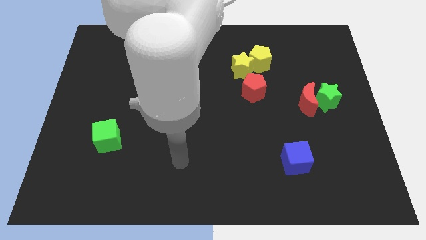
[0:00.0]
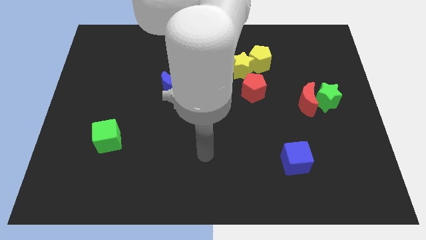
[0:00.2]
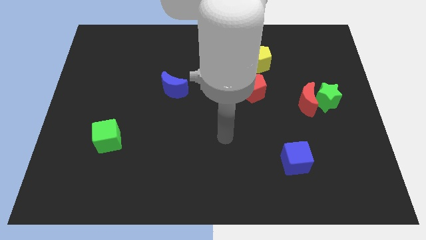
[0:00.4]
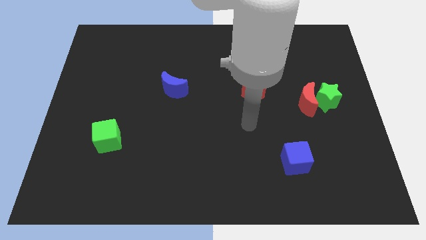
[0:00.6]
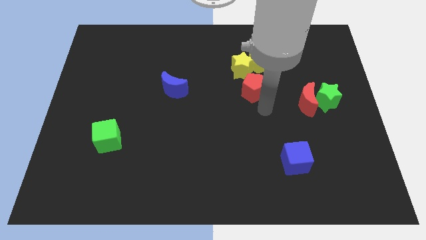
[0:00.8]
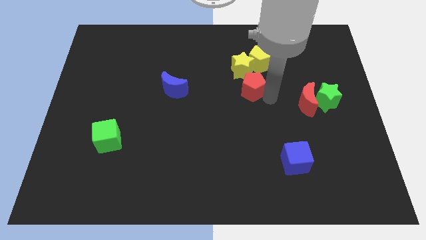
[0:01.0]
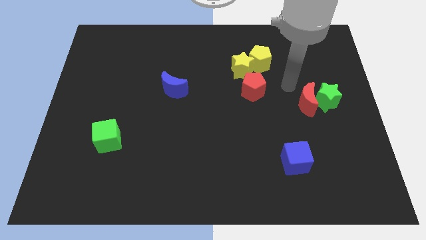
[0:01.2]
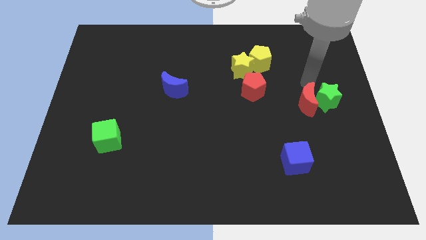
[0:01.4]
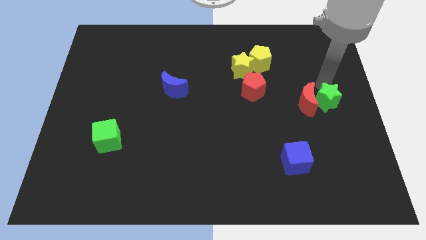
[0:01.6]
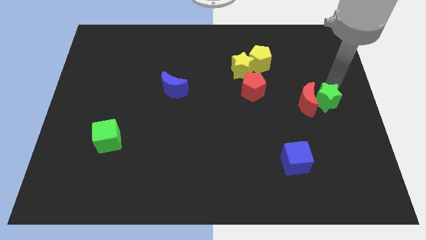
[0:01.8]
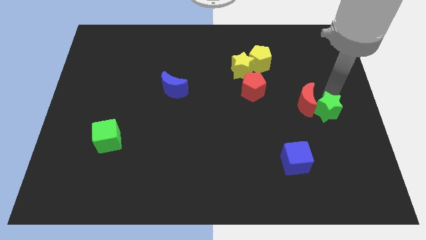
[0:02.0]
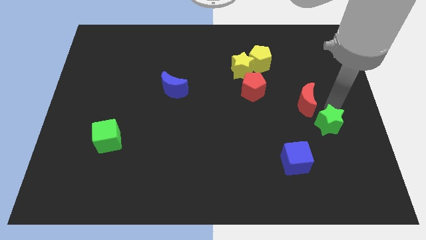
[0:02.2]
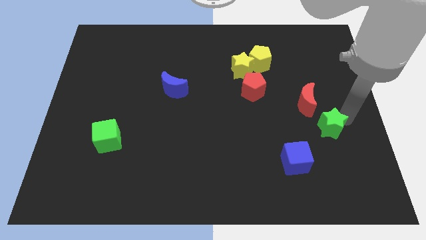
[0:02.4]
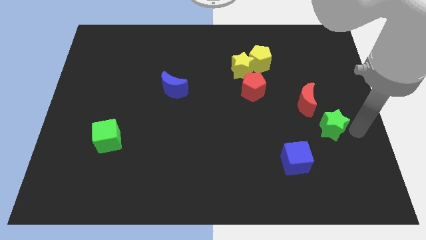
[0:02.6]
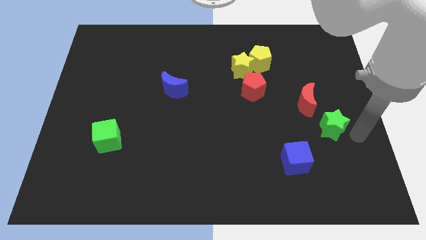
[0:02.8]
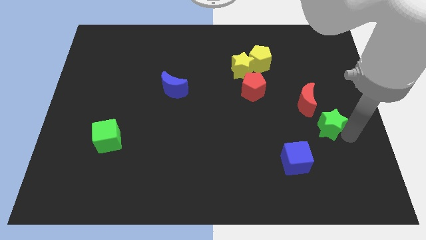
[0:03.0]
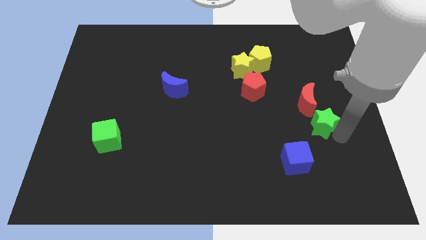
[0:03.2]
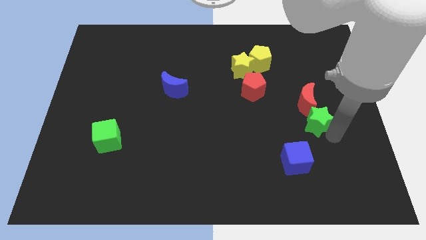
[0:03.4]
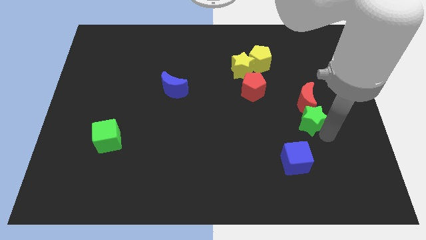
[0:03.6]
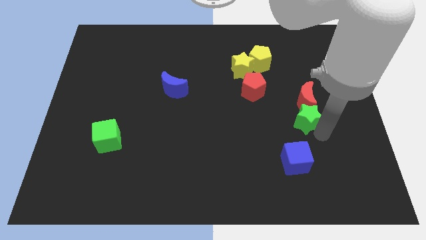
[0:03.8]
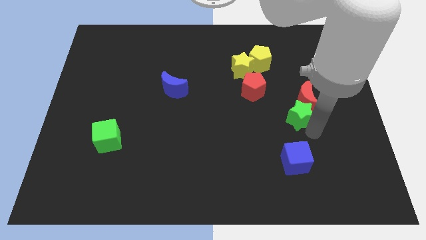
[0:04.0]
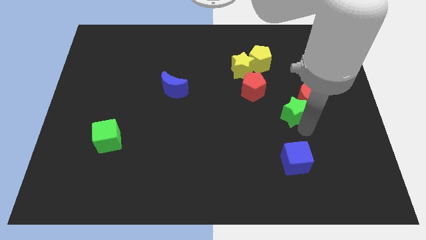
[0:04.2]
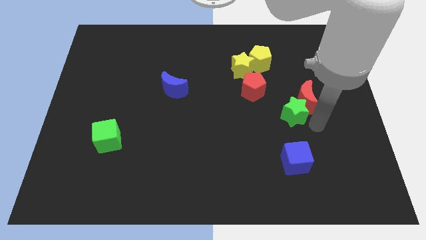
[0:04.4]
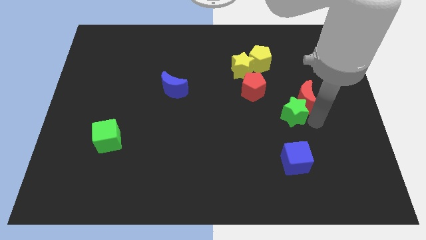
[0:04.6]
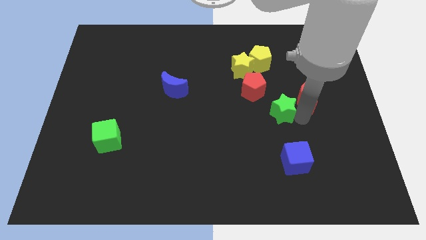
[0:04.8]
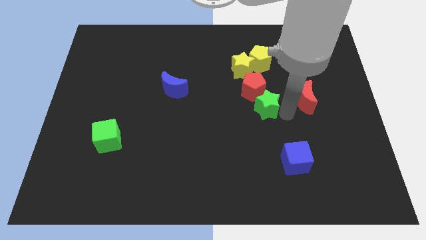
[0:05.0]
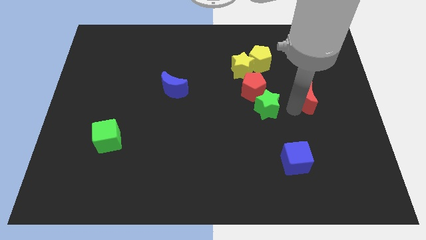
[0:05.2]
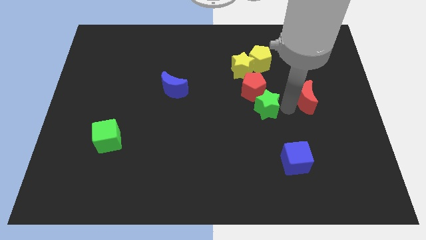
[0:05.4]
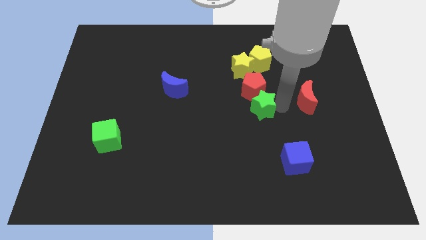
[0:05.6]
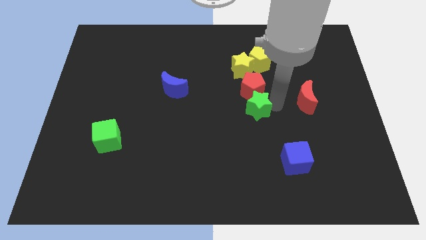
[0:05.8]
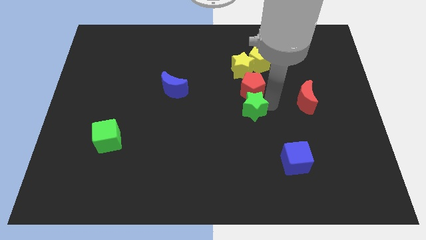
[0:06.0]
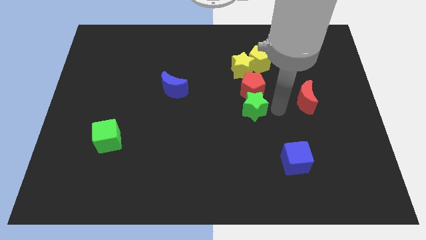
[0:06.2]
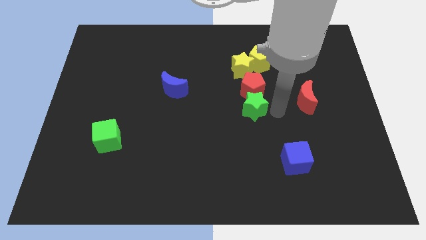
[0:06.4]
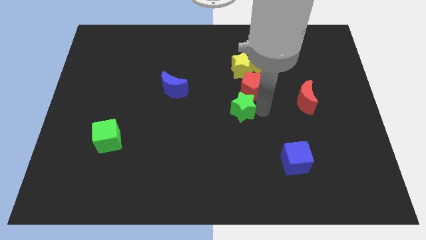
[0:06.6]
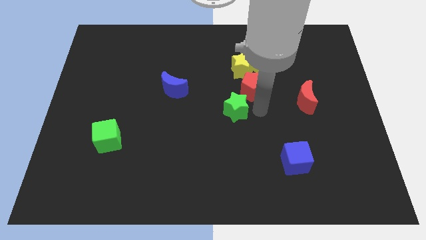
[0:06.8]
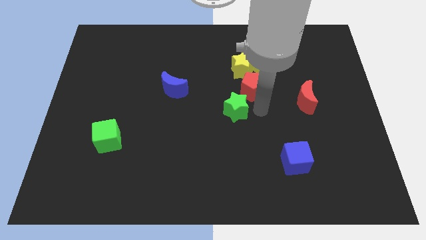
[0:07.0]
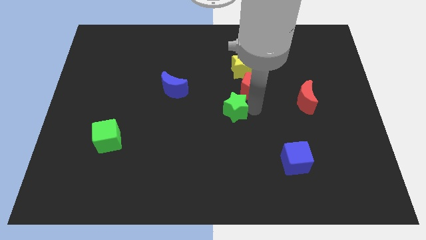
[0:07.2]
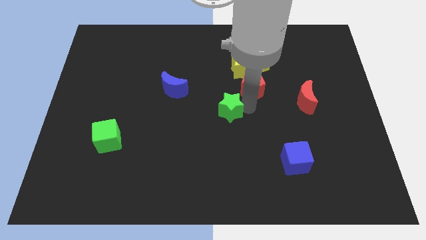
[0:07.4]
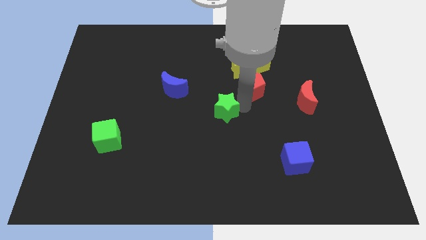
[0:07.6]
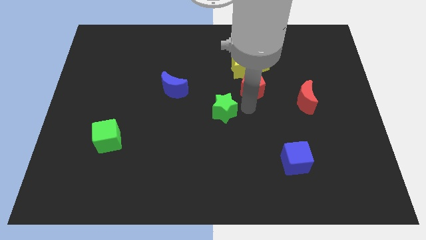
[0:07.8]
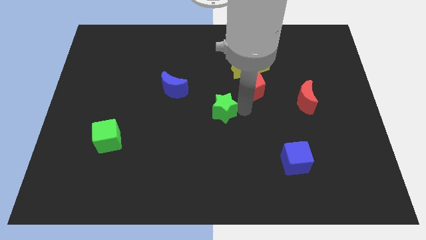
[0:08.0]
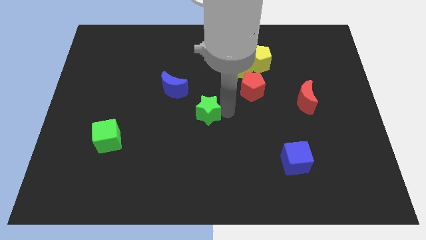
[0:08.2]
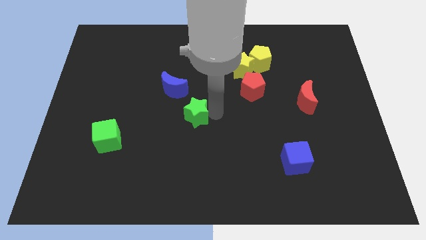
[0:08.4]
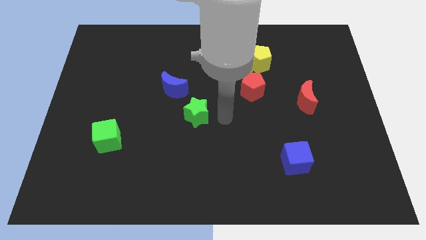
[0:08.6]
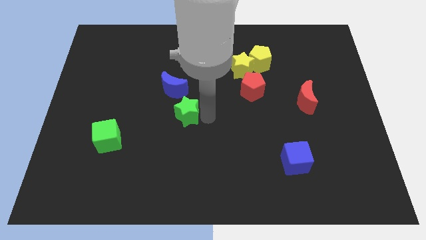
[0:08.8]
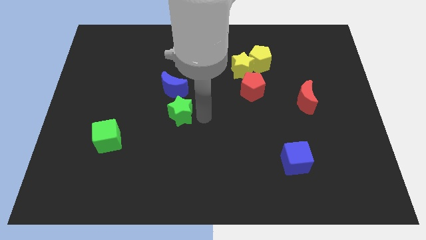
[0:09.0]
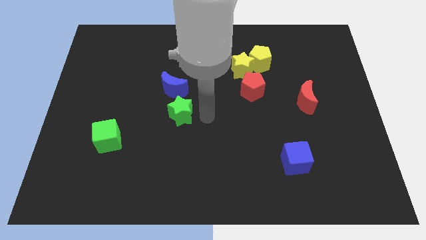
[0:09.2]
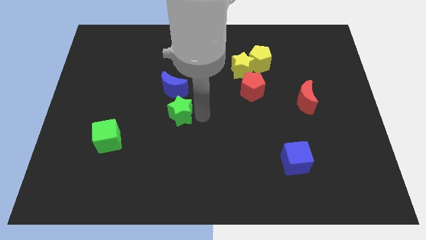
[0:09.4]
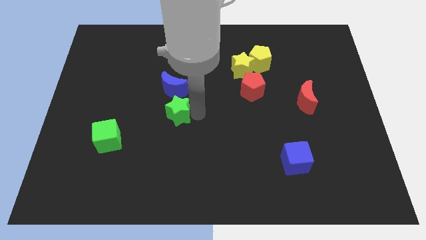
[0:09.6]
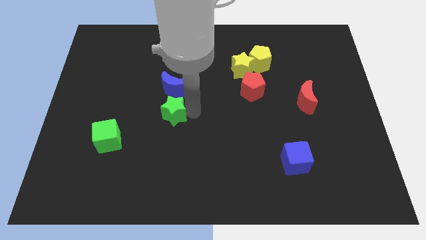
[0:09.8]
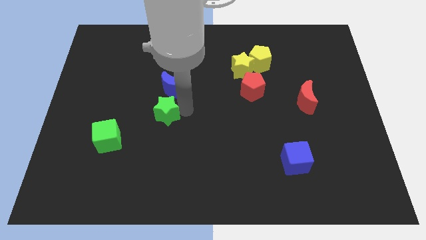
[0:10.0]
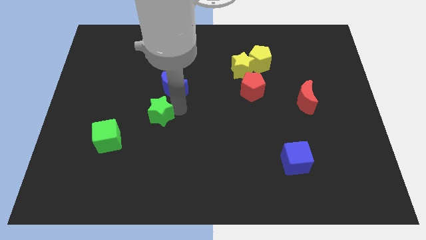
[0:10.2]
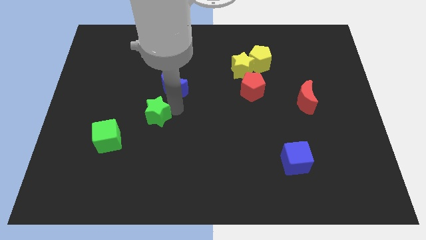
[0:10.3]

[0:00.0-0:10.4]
slide the green star diagonally up and to the right of the green cube

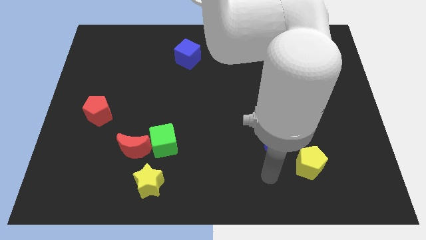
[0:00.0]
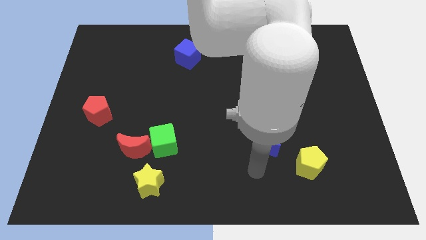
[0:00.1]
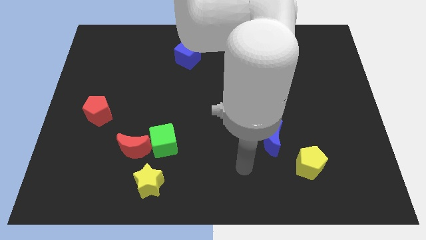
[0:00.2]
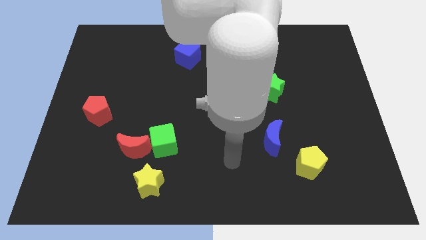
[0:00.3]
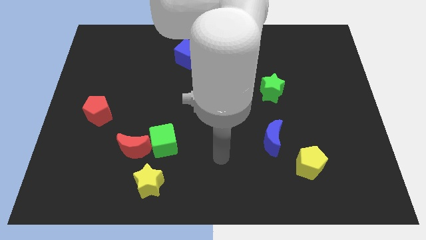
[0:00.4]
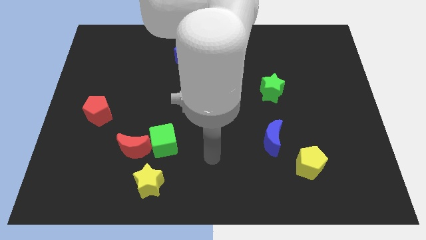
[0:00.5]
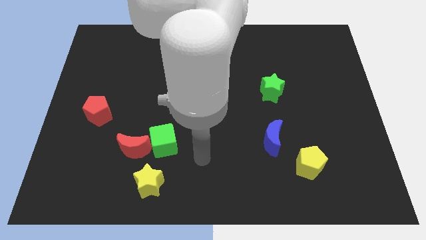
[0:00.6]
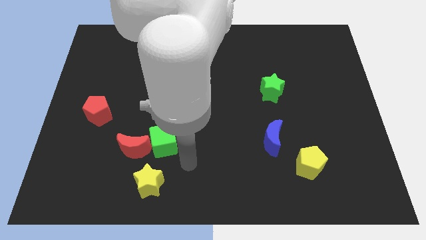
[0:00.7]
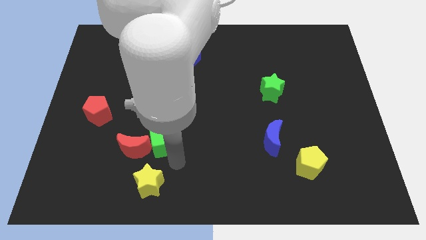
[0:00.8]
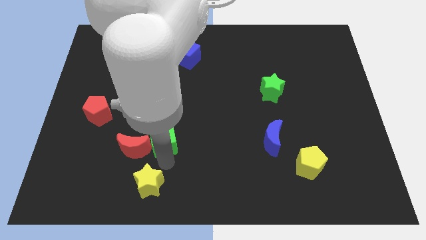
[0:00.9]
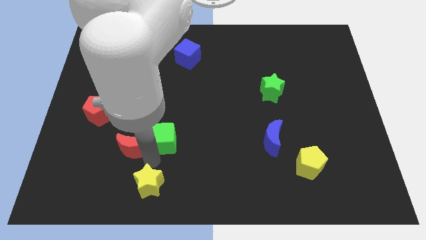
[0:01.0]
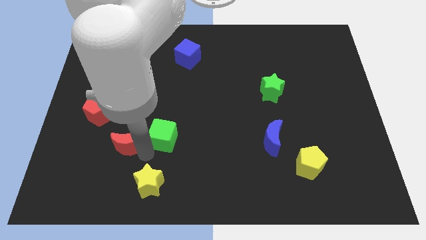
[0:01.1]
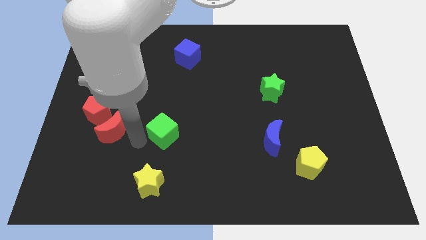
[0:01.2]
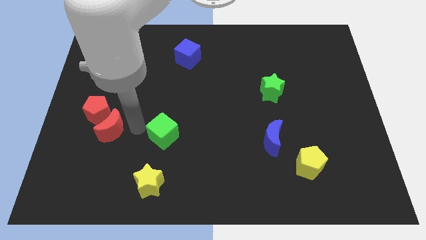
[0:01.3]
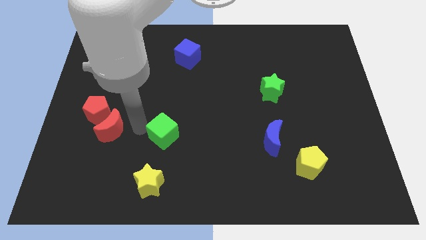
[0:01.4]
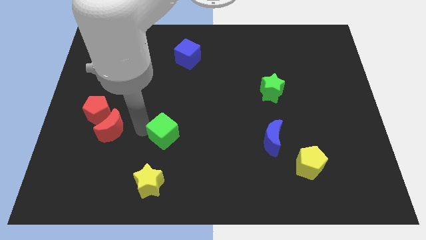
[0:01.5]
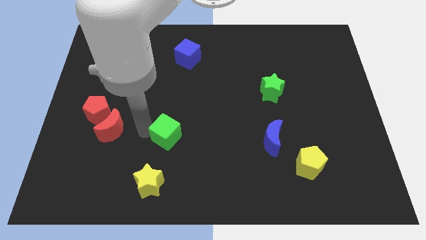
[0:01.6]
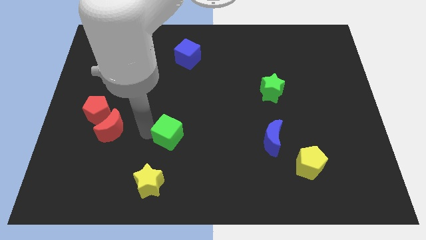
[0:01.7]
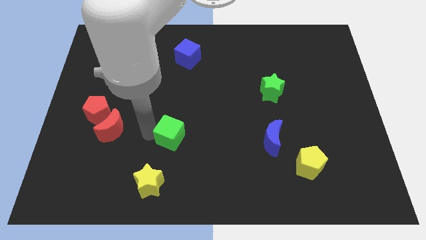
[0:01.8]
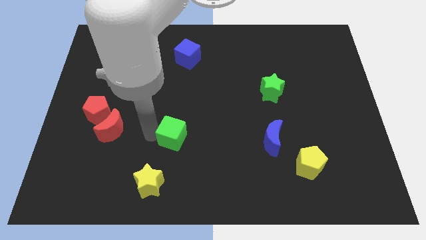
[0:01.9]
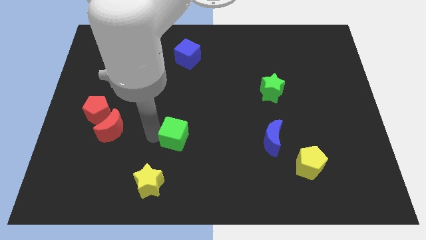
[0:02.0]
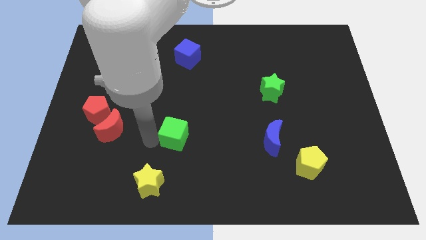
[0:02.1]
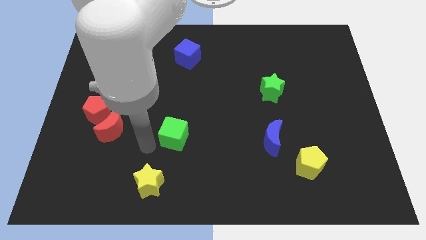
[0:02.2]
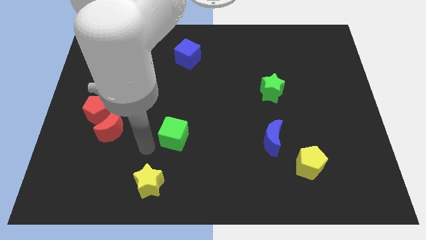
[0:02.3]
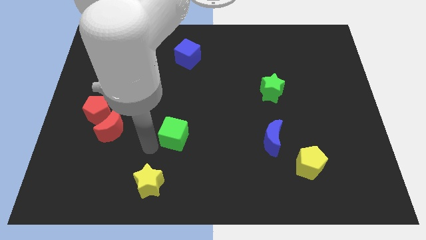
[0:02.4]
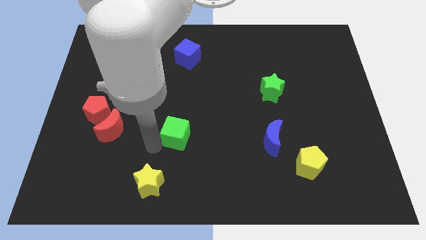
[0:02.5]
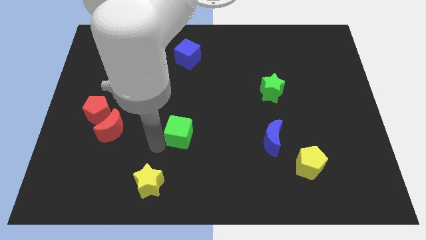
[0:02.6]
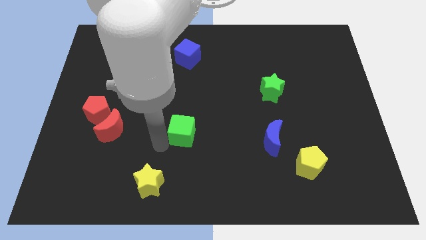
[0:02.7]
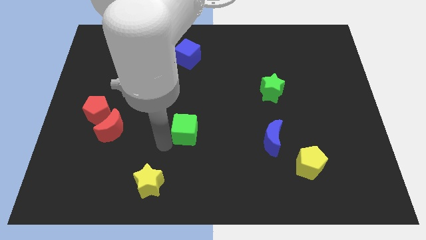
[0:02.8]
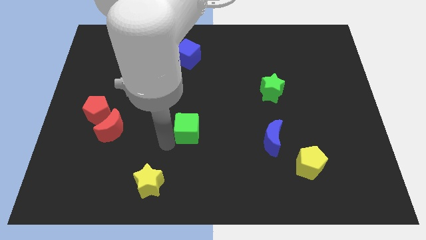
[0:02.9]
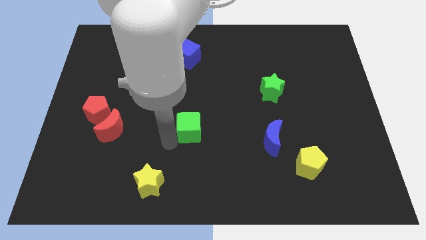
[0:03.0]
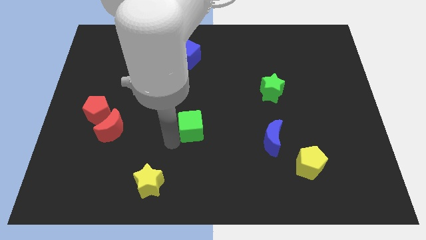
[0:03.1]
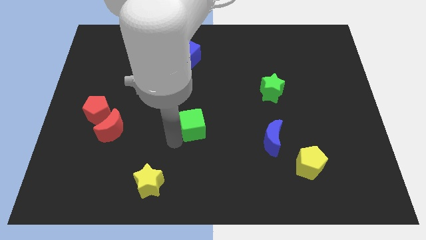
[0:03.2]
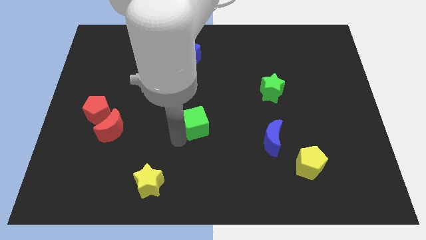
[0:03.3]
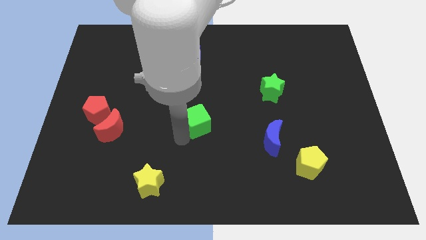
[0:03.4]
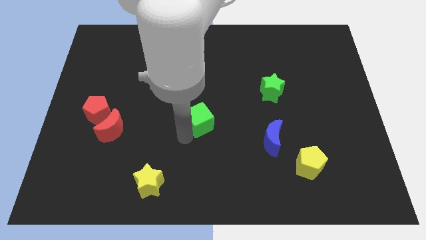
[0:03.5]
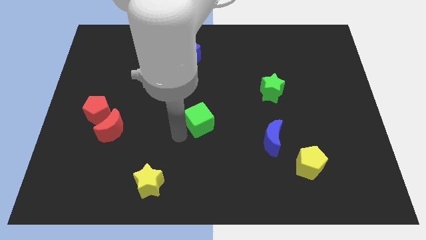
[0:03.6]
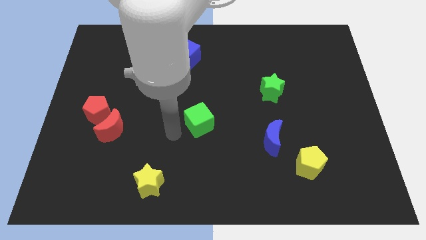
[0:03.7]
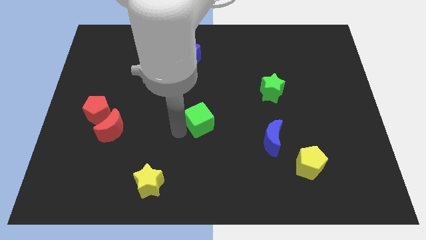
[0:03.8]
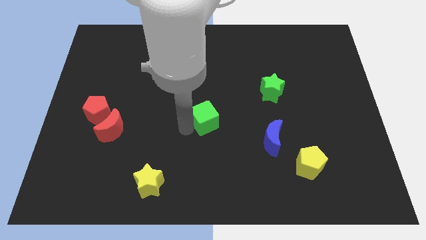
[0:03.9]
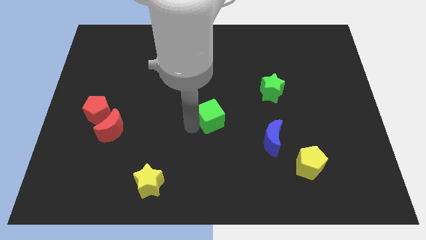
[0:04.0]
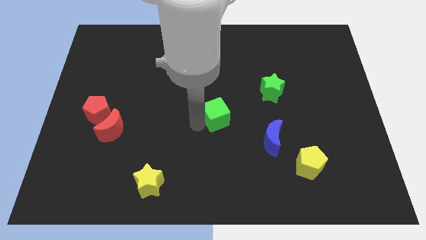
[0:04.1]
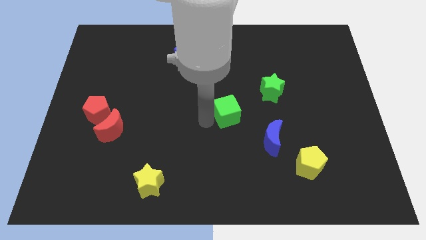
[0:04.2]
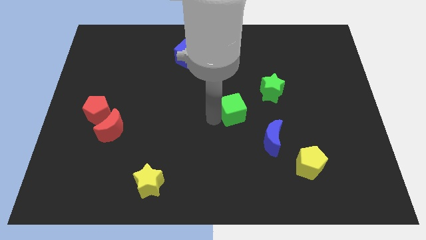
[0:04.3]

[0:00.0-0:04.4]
move the green cube diagonally down and to the left of the green star
